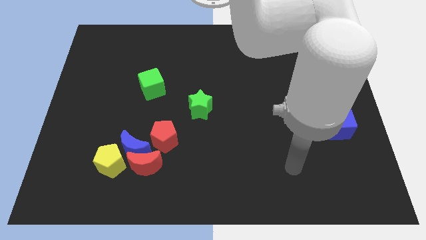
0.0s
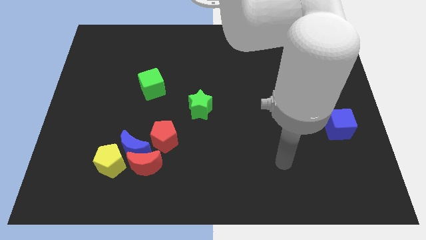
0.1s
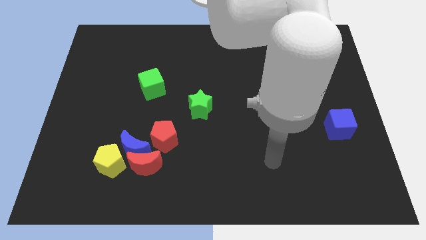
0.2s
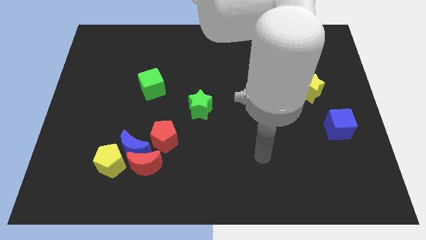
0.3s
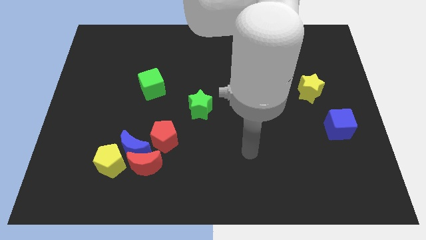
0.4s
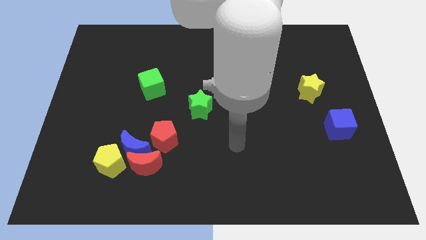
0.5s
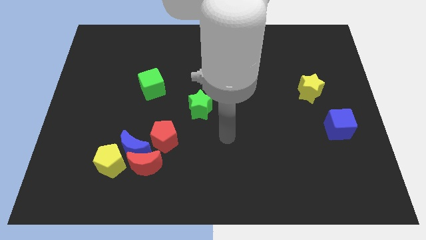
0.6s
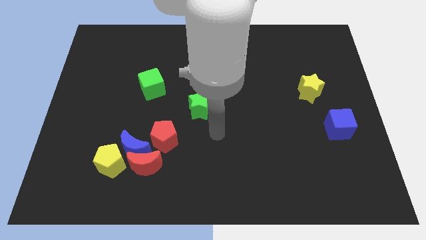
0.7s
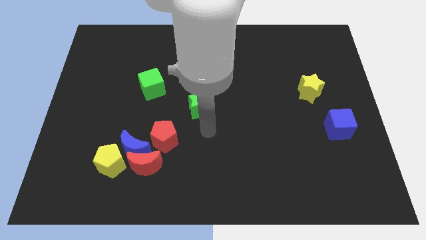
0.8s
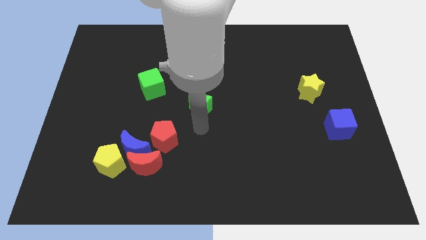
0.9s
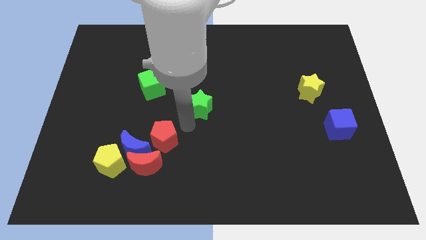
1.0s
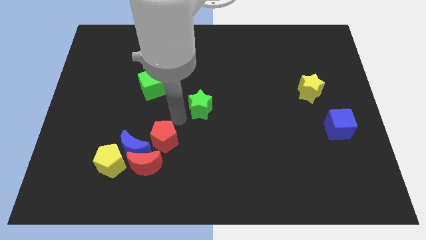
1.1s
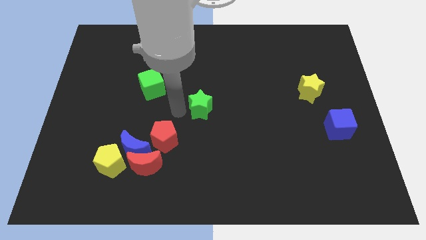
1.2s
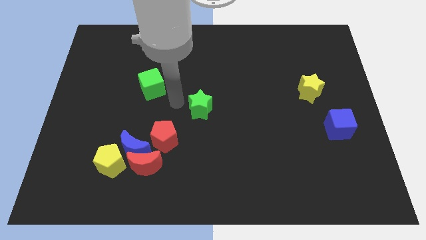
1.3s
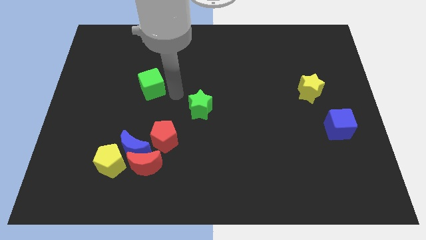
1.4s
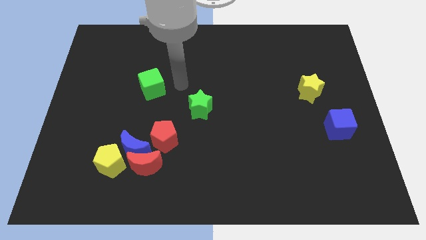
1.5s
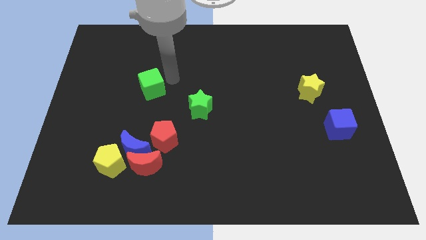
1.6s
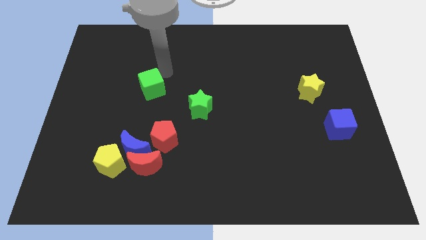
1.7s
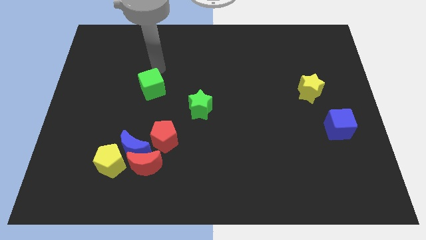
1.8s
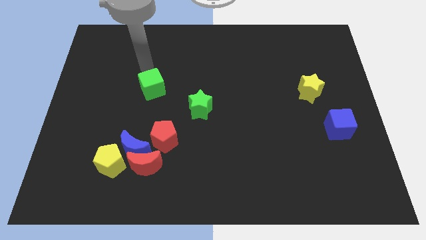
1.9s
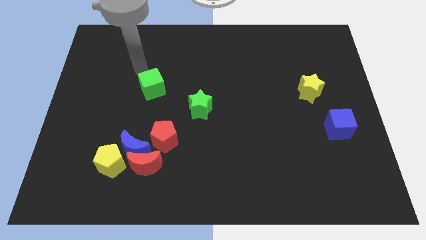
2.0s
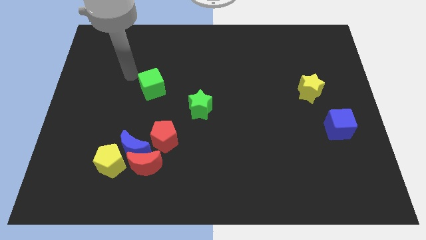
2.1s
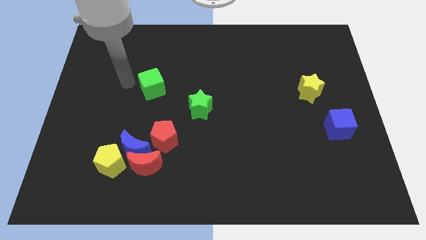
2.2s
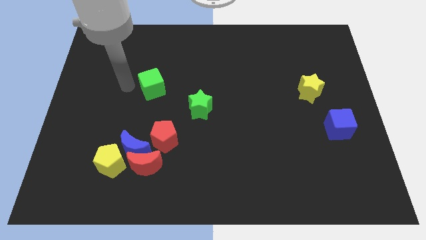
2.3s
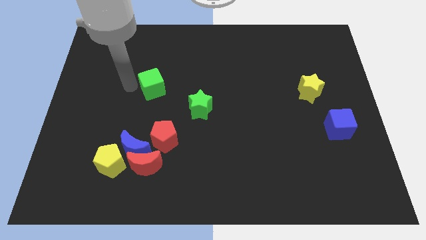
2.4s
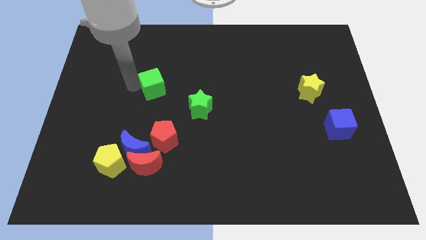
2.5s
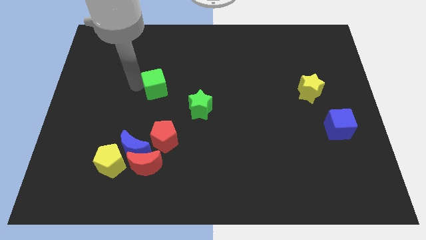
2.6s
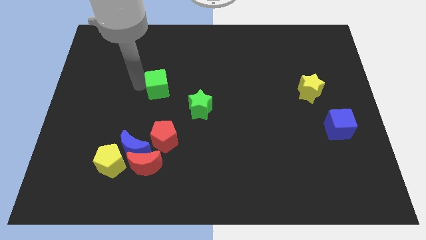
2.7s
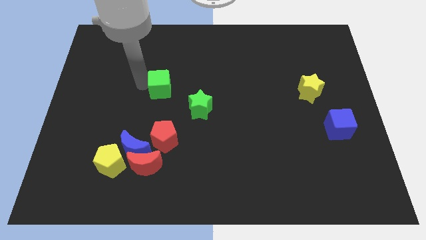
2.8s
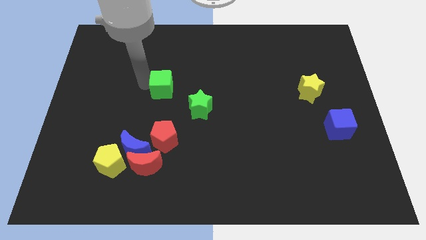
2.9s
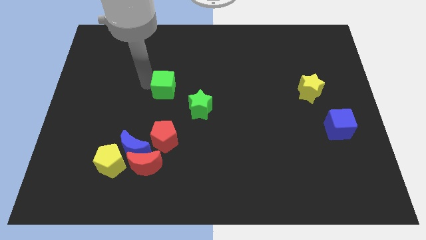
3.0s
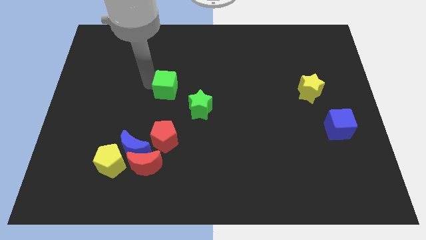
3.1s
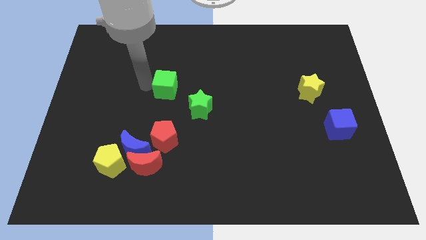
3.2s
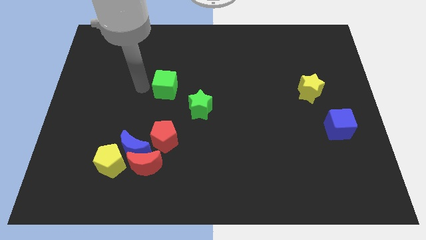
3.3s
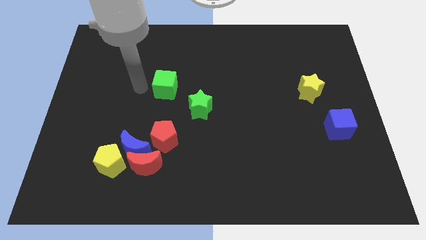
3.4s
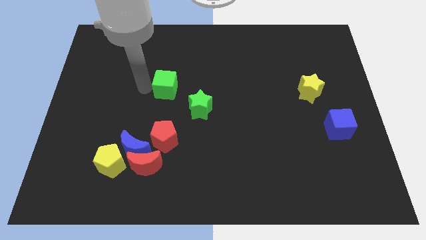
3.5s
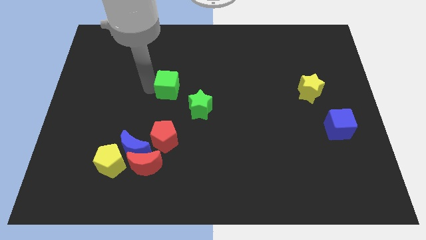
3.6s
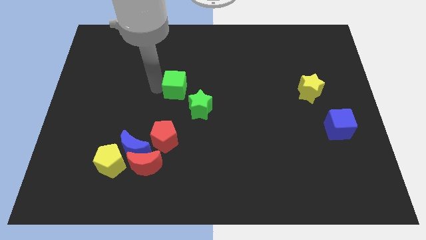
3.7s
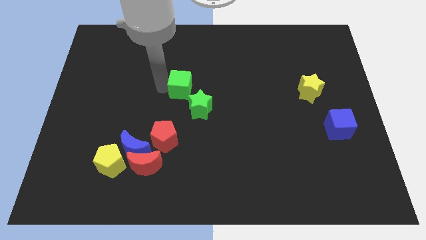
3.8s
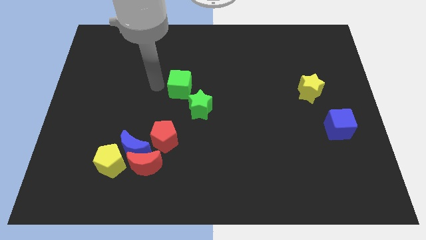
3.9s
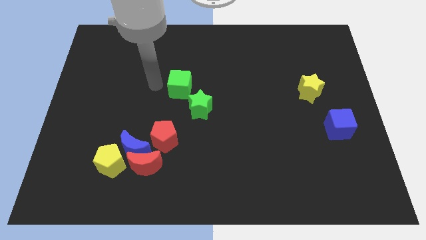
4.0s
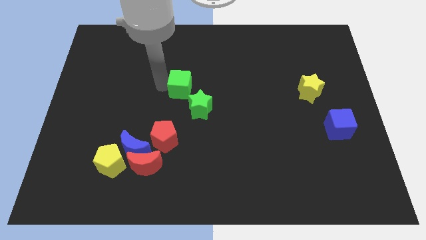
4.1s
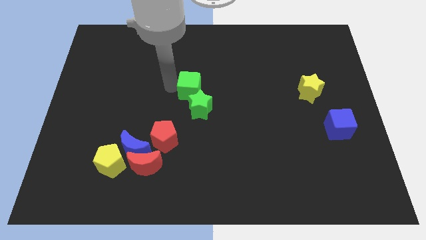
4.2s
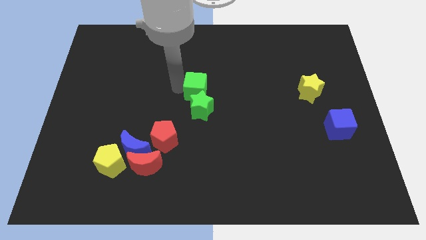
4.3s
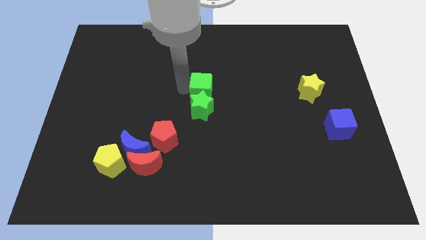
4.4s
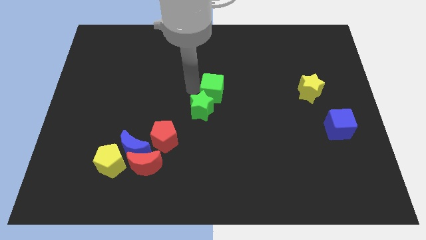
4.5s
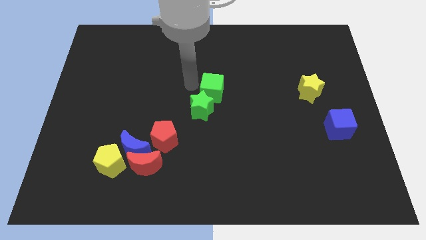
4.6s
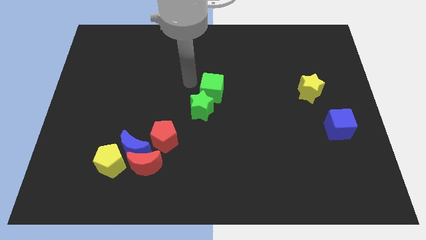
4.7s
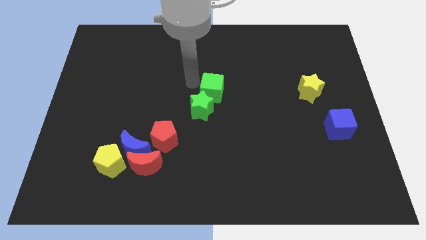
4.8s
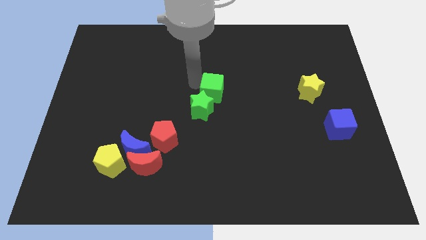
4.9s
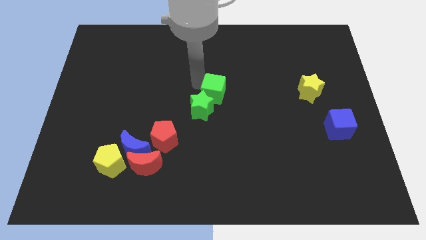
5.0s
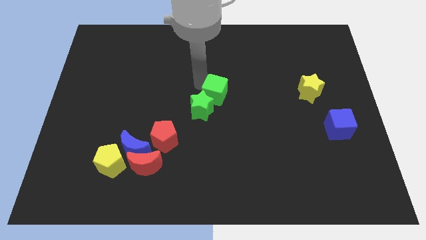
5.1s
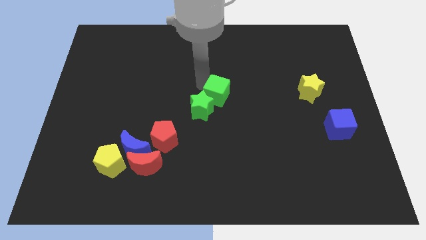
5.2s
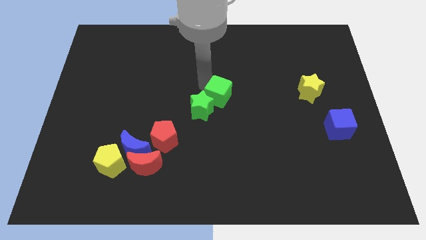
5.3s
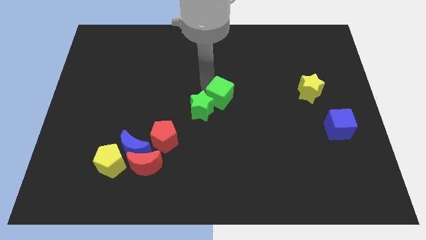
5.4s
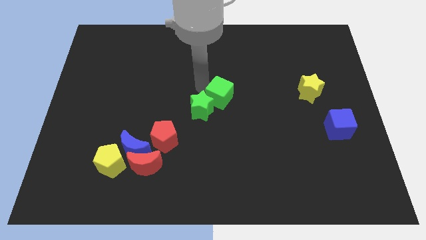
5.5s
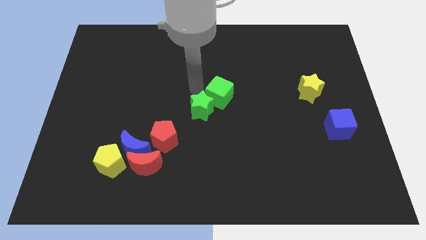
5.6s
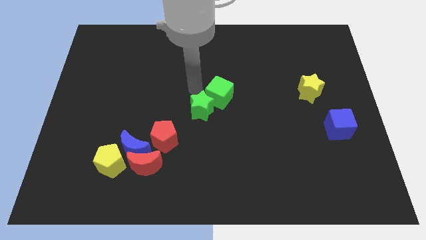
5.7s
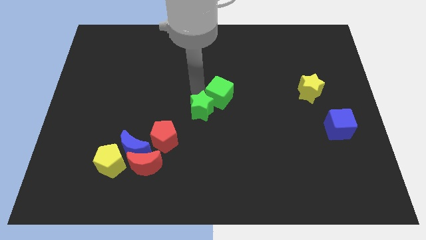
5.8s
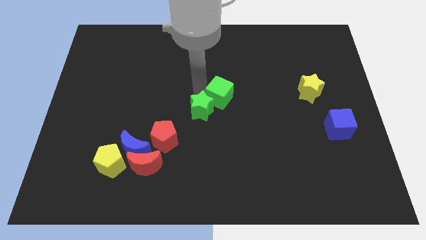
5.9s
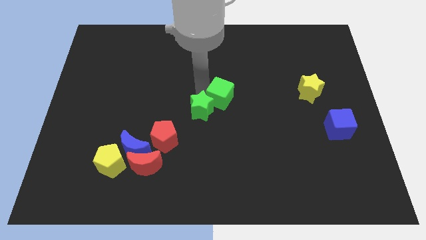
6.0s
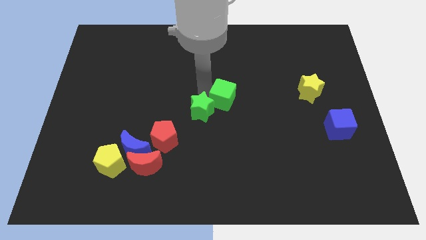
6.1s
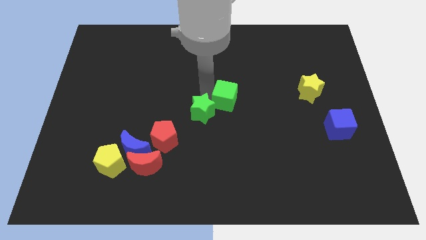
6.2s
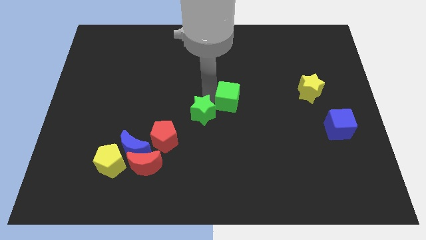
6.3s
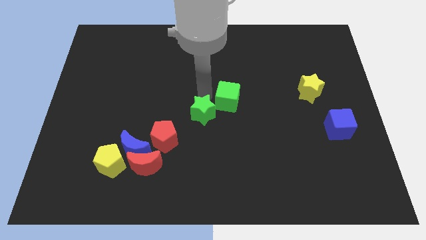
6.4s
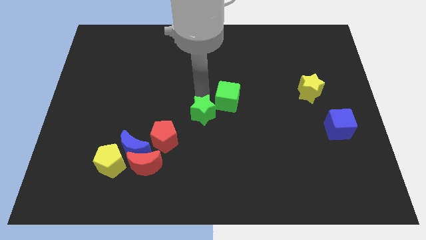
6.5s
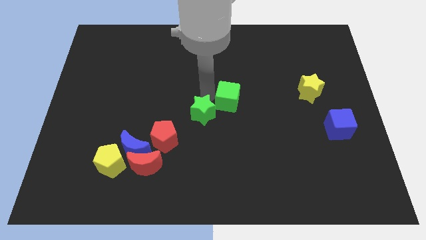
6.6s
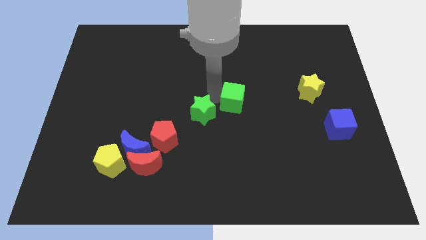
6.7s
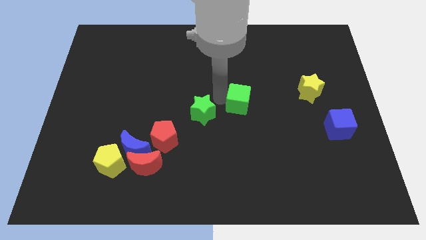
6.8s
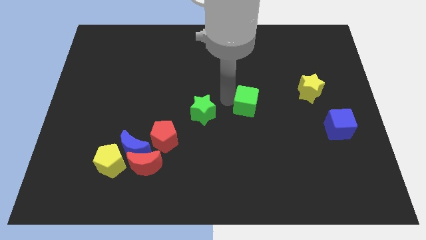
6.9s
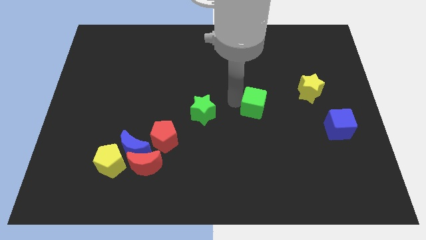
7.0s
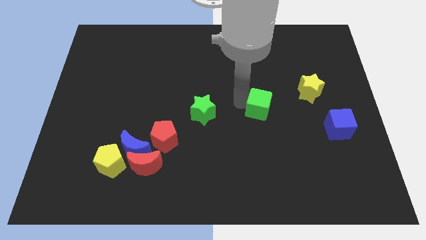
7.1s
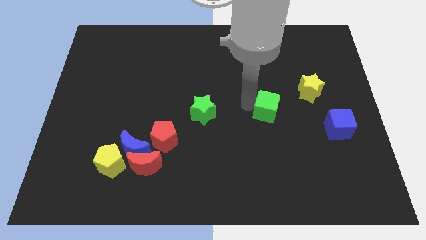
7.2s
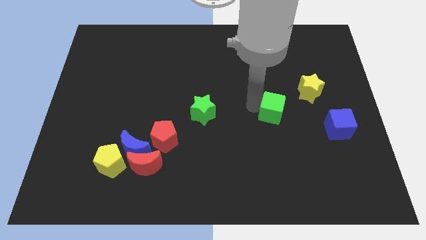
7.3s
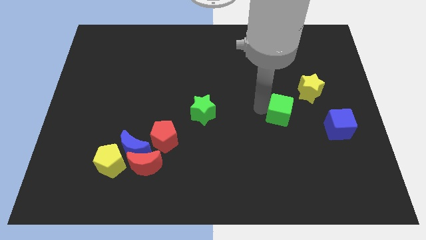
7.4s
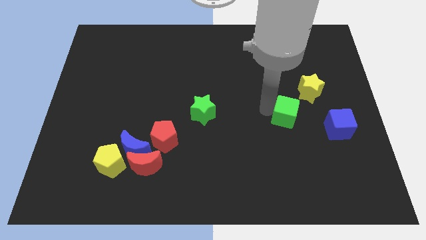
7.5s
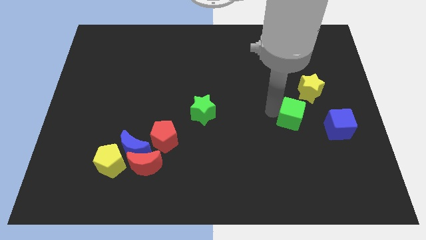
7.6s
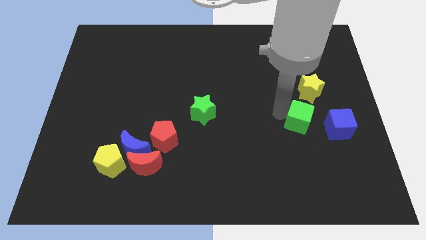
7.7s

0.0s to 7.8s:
push the green cube to the bottom side of the yellow star
